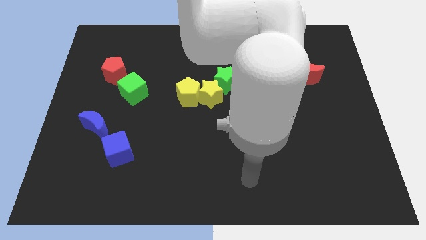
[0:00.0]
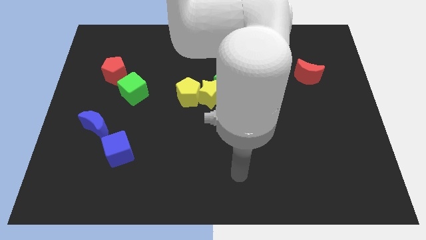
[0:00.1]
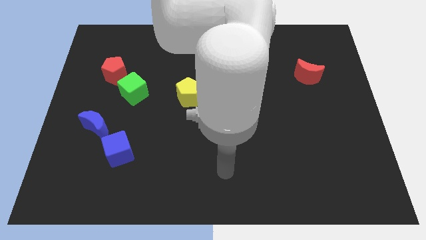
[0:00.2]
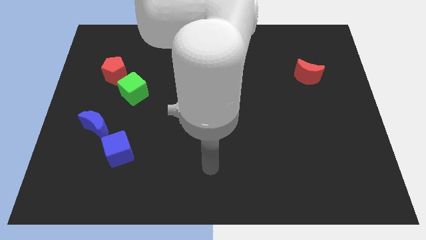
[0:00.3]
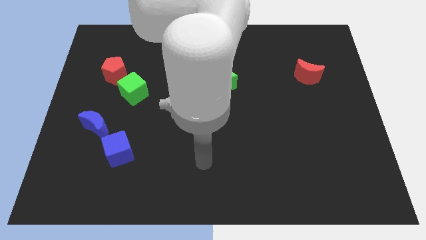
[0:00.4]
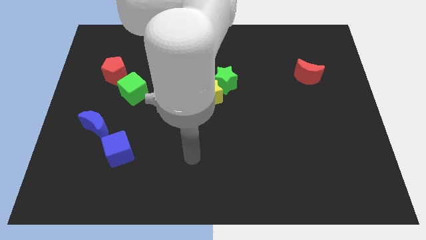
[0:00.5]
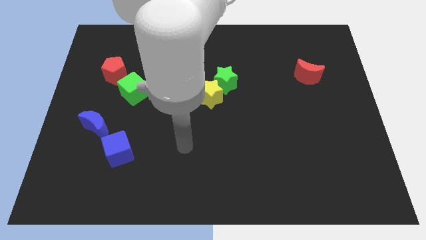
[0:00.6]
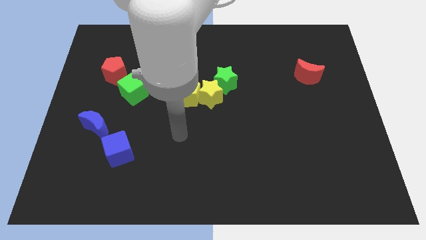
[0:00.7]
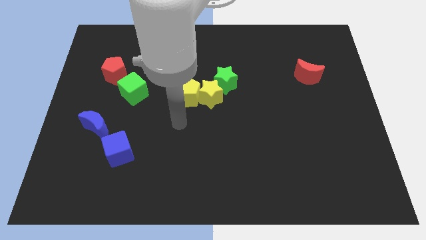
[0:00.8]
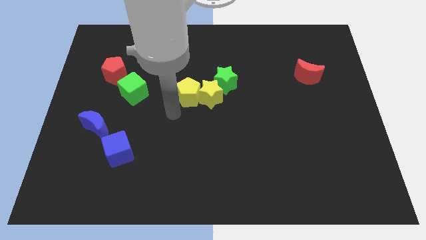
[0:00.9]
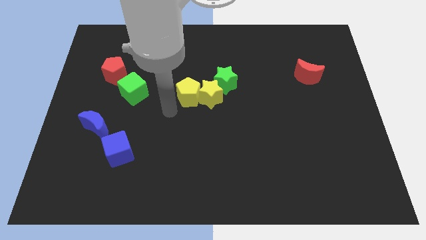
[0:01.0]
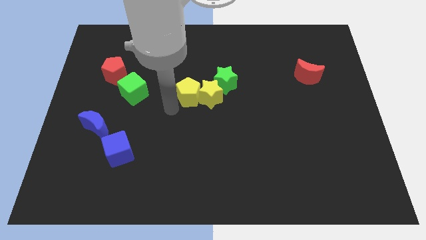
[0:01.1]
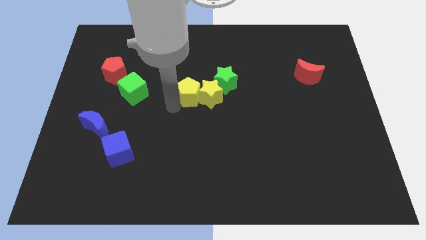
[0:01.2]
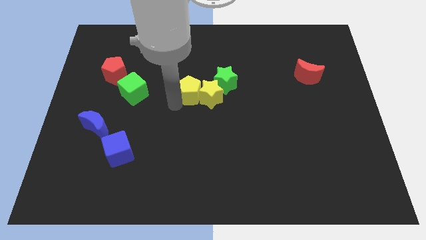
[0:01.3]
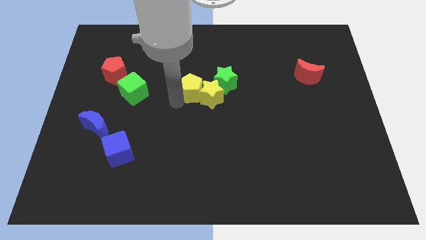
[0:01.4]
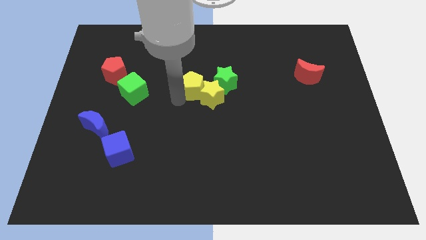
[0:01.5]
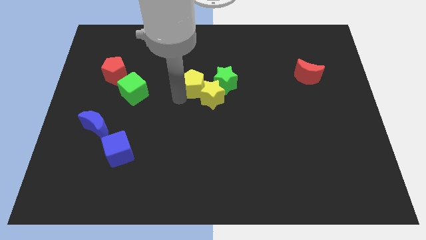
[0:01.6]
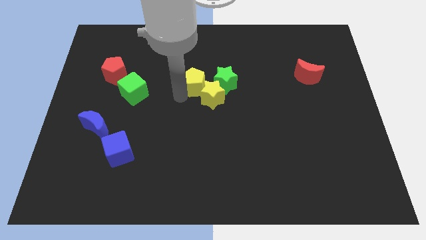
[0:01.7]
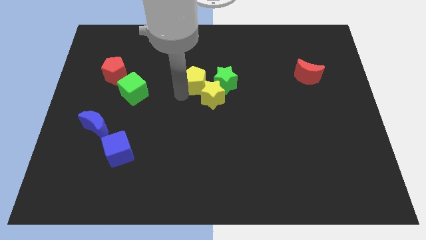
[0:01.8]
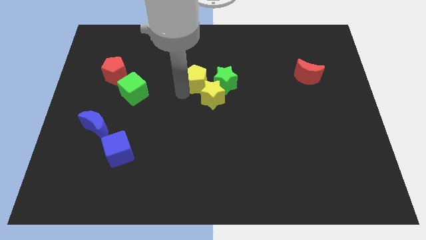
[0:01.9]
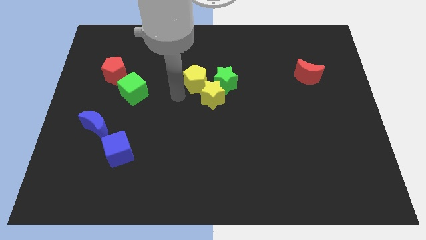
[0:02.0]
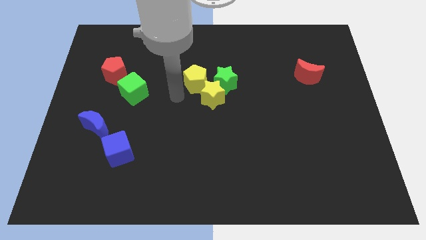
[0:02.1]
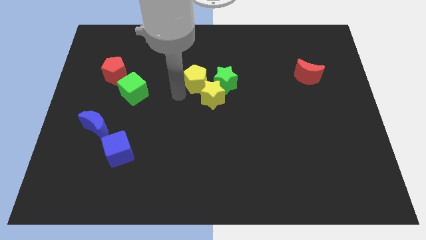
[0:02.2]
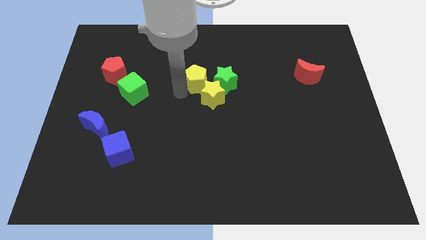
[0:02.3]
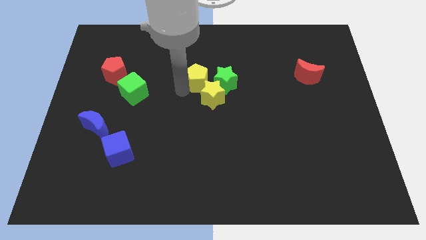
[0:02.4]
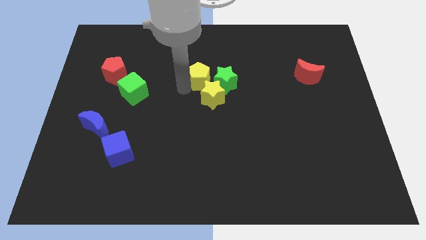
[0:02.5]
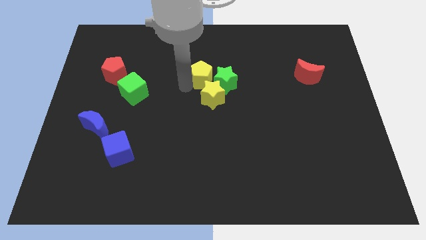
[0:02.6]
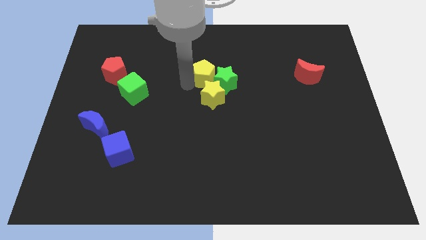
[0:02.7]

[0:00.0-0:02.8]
slightly slide the yellow pentagon up and to the right diagonally

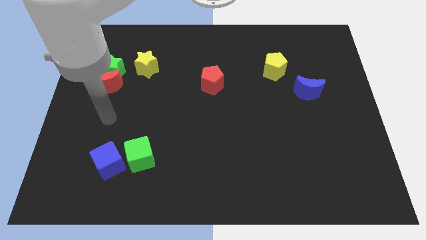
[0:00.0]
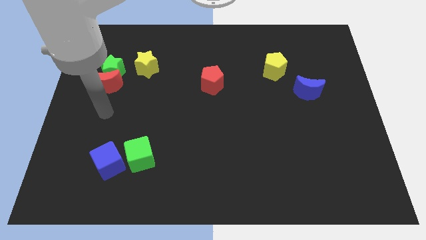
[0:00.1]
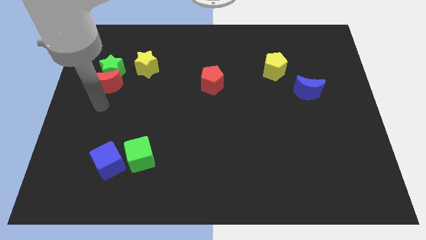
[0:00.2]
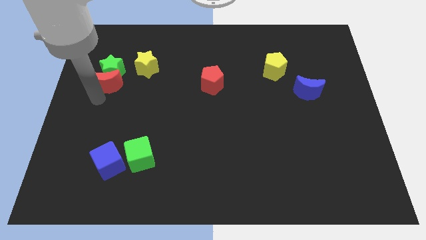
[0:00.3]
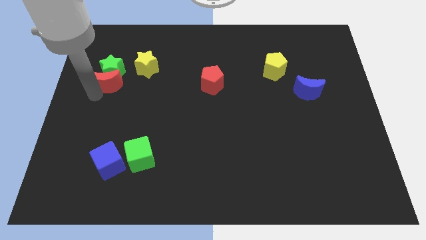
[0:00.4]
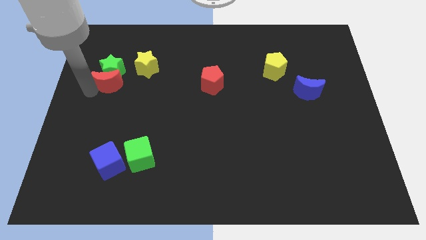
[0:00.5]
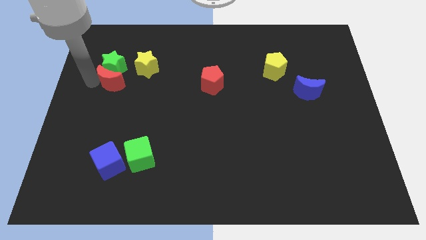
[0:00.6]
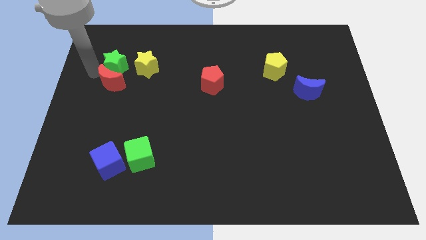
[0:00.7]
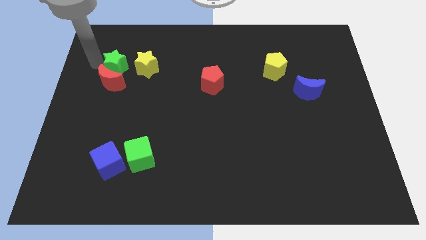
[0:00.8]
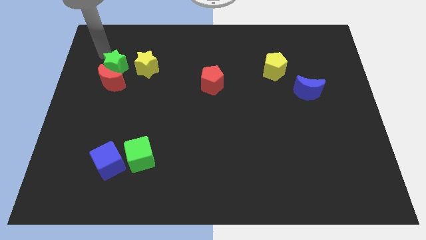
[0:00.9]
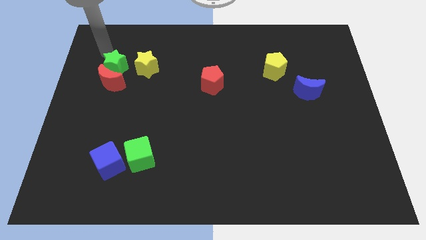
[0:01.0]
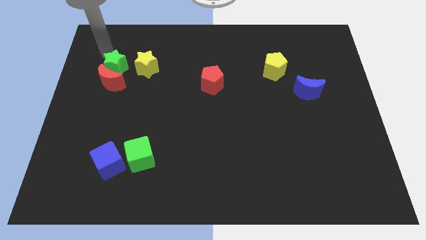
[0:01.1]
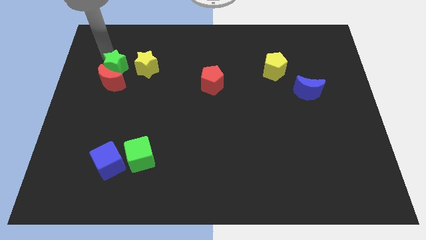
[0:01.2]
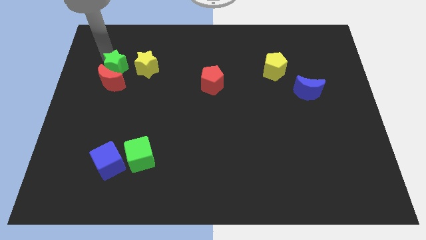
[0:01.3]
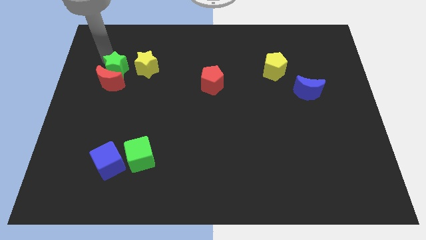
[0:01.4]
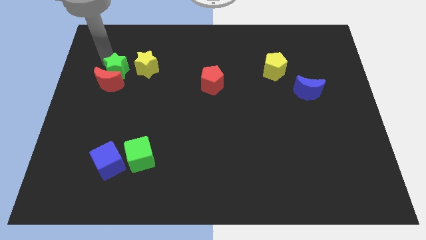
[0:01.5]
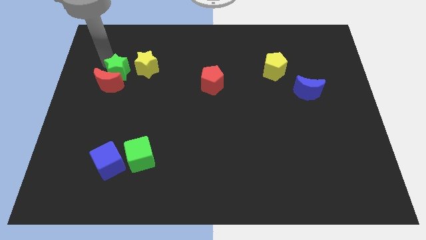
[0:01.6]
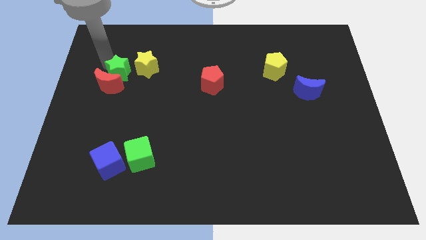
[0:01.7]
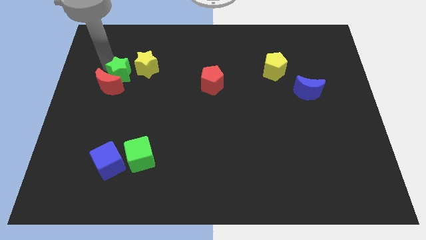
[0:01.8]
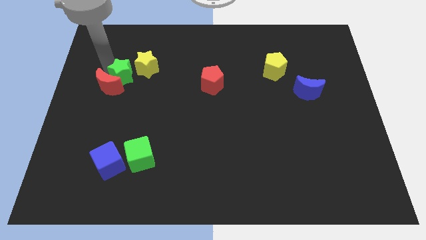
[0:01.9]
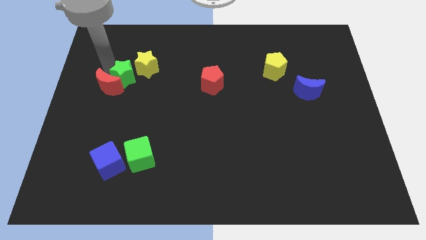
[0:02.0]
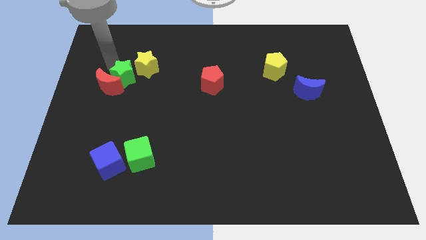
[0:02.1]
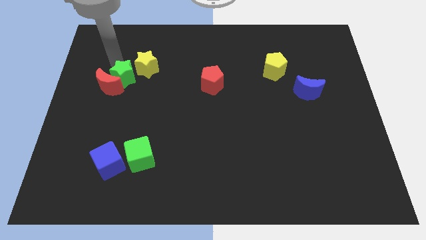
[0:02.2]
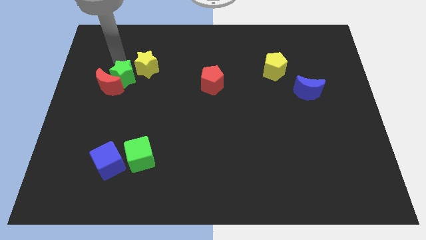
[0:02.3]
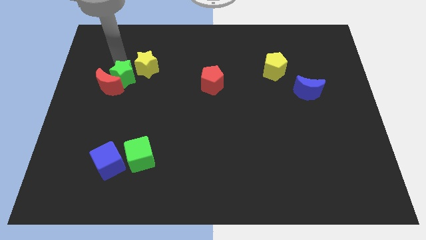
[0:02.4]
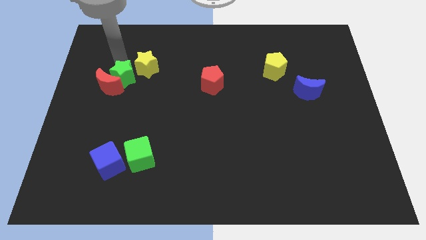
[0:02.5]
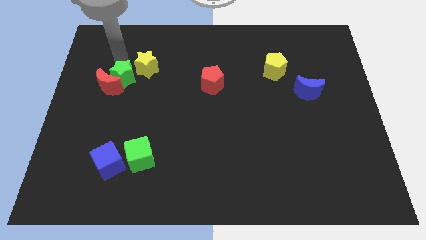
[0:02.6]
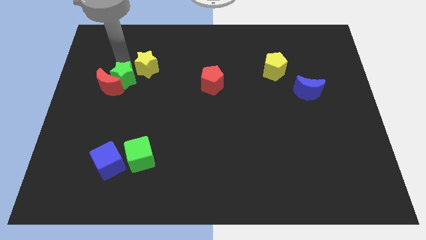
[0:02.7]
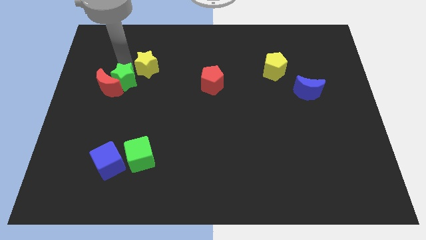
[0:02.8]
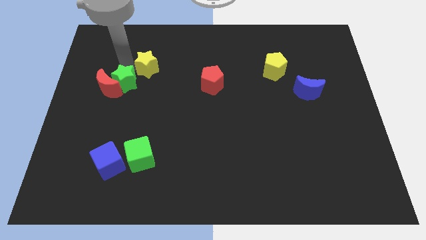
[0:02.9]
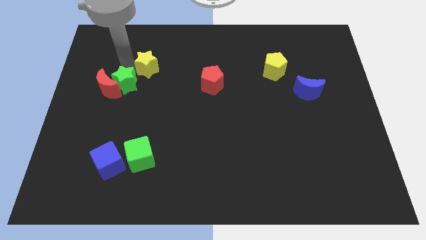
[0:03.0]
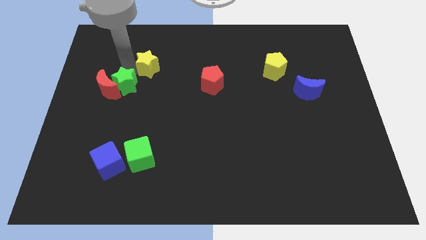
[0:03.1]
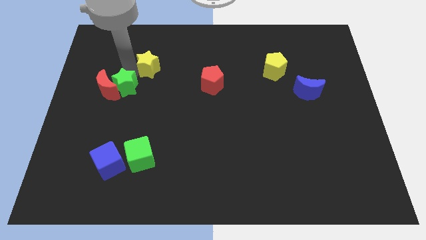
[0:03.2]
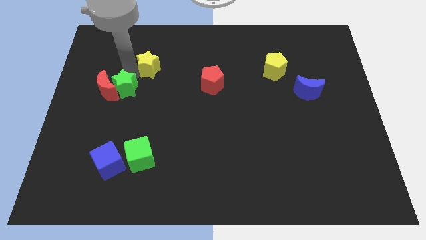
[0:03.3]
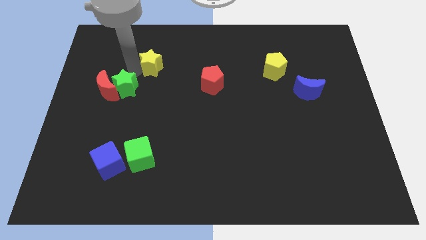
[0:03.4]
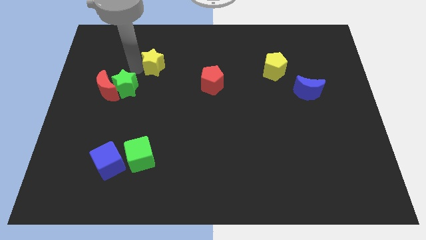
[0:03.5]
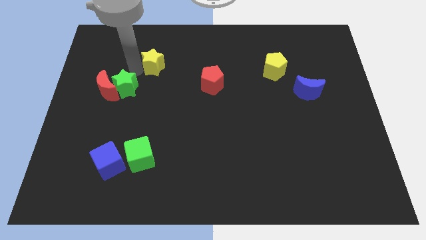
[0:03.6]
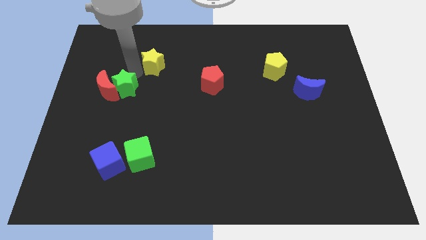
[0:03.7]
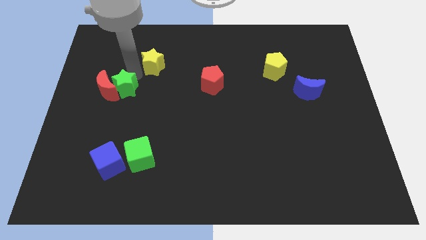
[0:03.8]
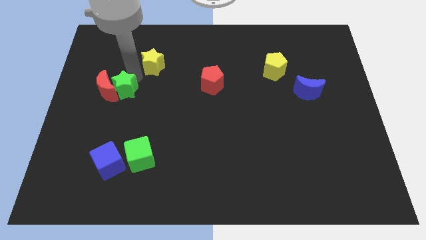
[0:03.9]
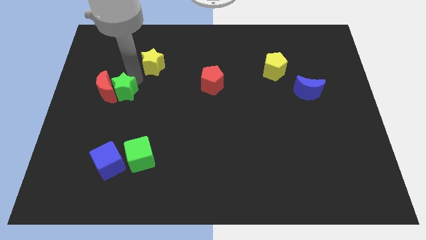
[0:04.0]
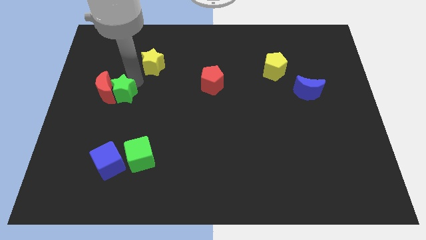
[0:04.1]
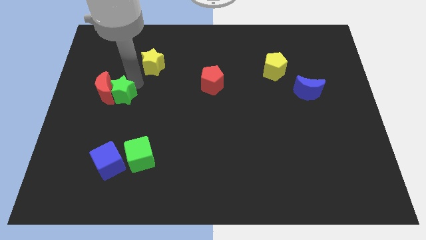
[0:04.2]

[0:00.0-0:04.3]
slightly slide the green star downwards

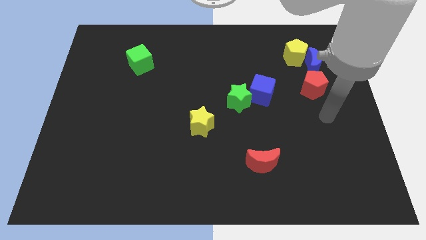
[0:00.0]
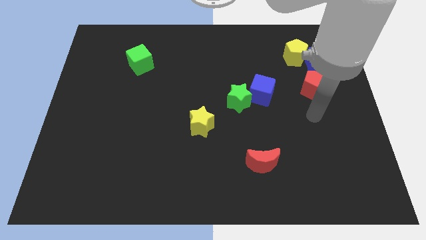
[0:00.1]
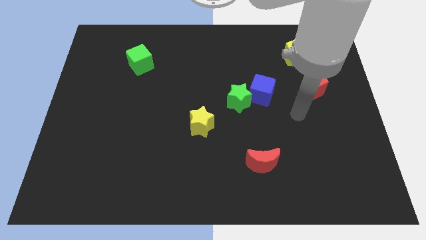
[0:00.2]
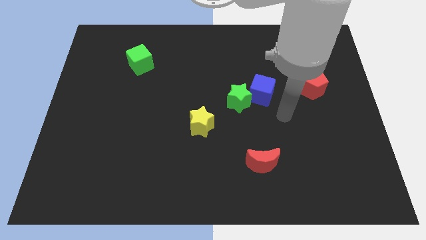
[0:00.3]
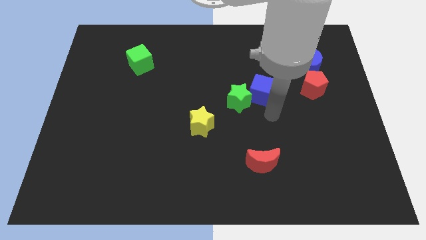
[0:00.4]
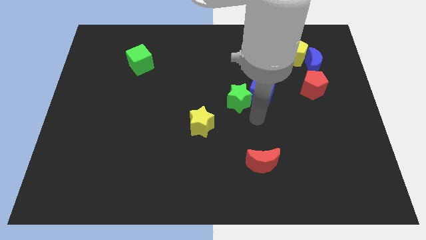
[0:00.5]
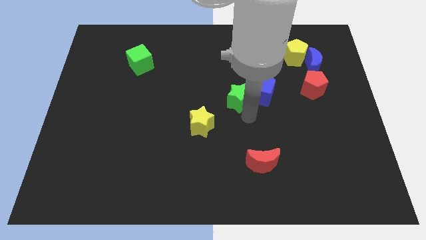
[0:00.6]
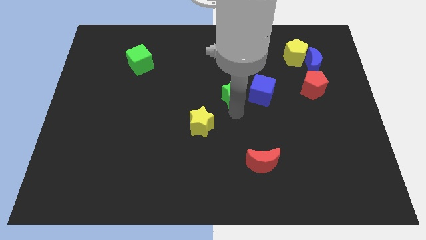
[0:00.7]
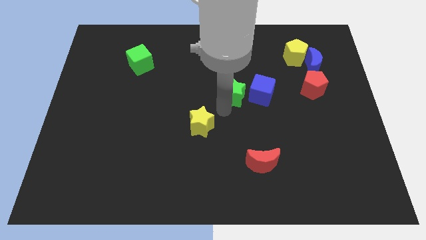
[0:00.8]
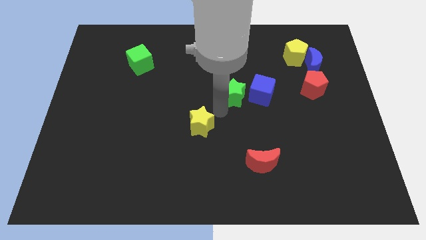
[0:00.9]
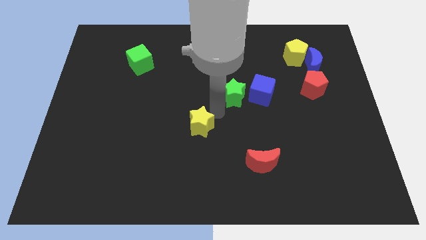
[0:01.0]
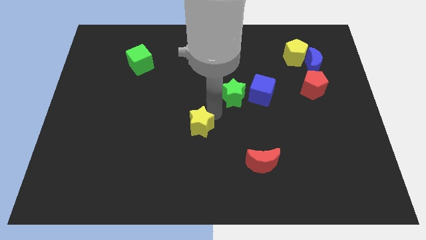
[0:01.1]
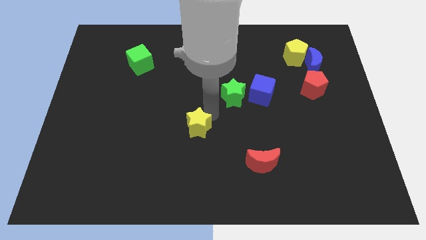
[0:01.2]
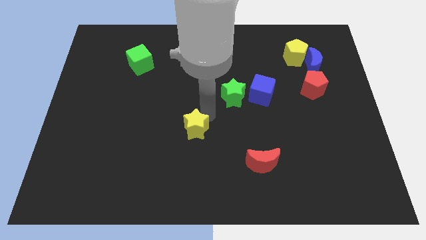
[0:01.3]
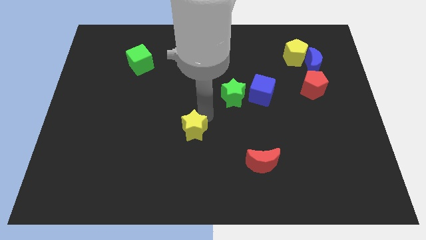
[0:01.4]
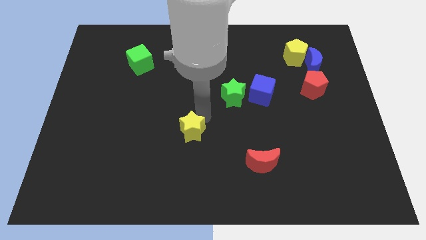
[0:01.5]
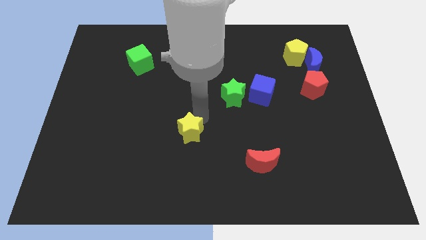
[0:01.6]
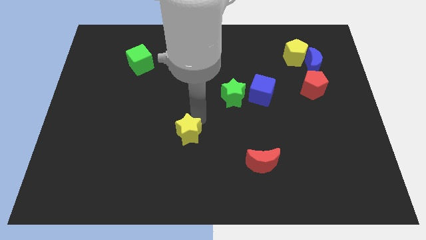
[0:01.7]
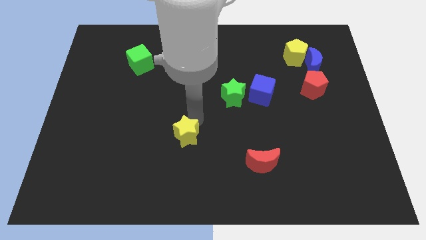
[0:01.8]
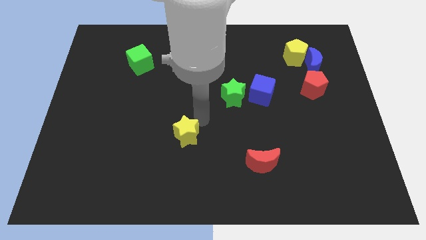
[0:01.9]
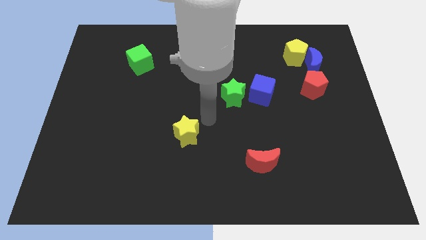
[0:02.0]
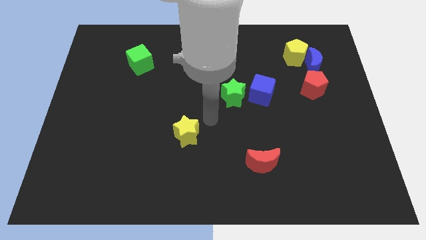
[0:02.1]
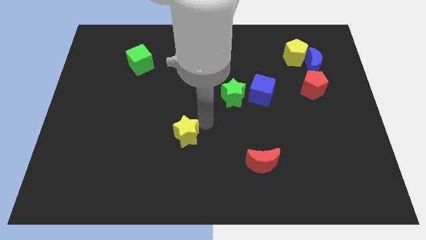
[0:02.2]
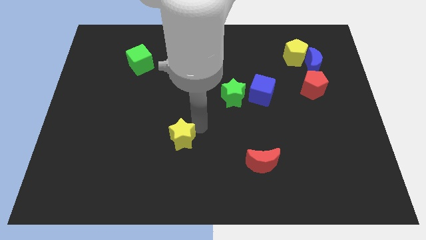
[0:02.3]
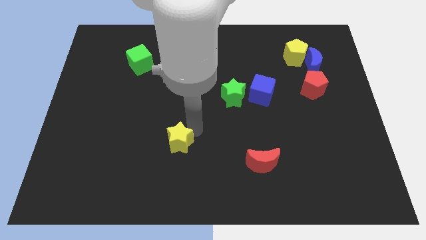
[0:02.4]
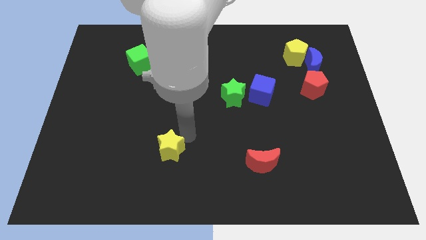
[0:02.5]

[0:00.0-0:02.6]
slightly move the yellow star downwards and then to the left
